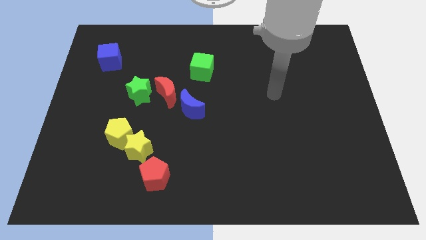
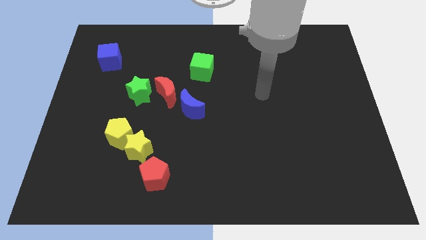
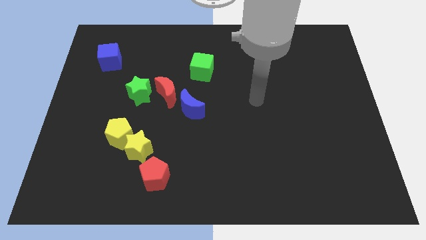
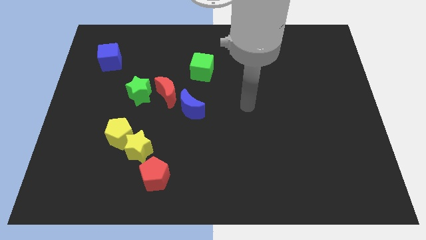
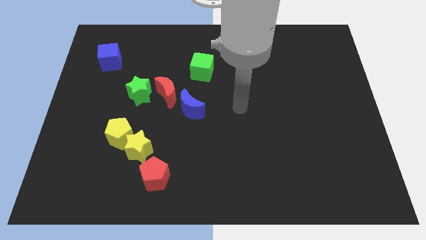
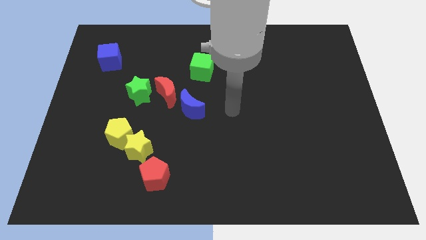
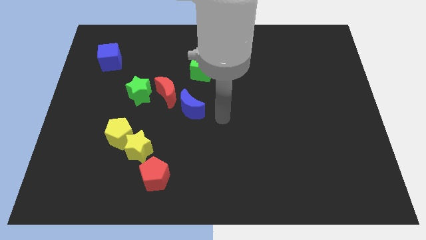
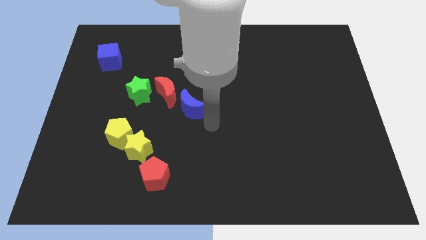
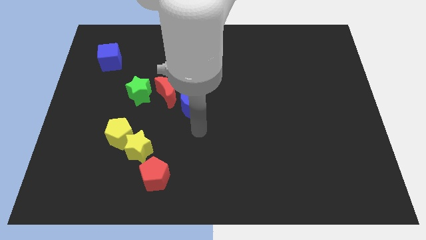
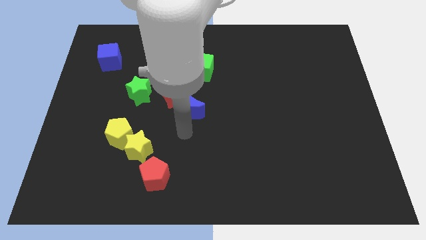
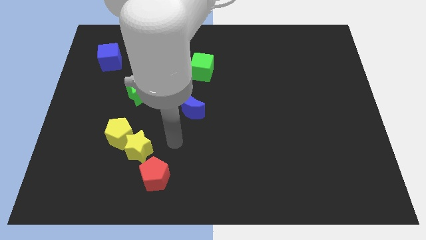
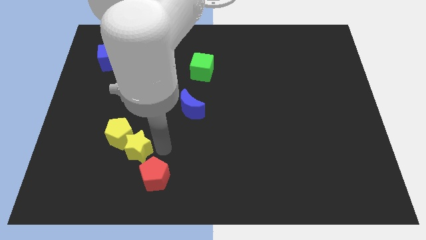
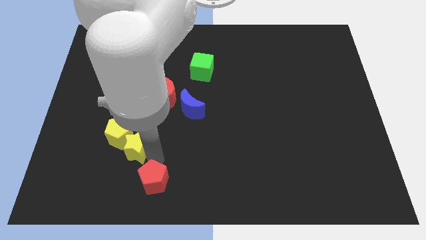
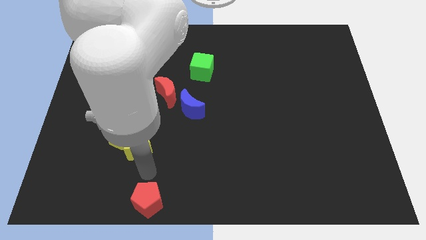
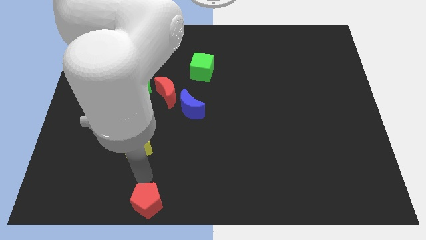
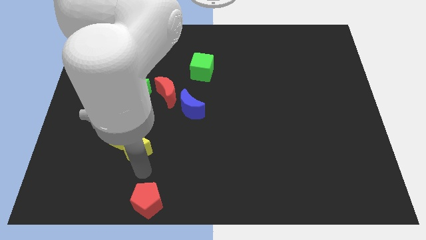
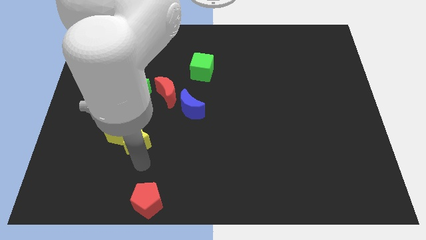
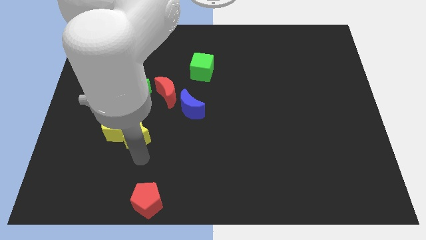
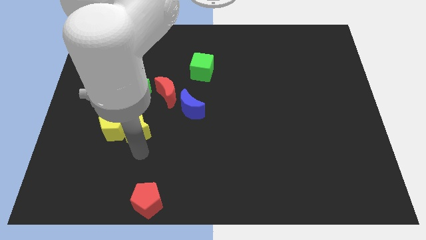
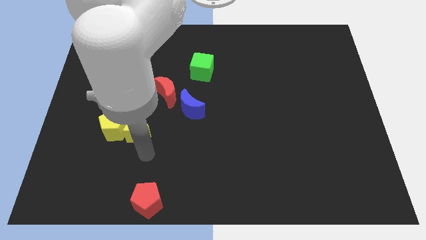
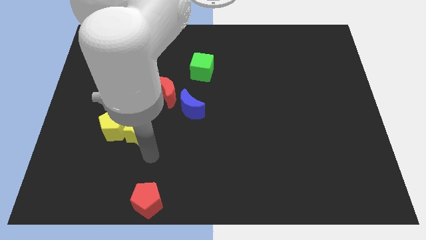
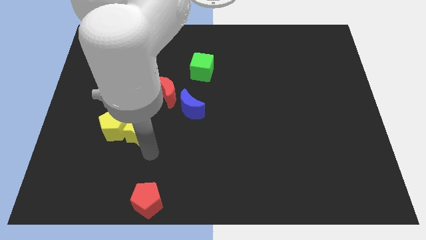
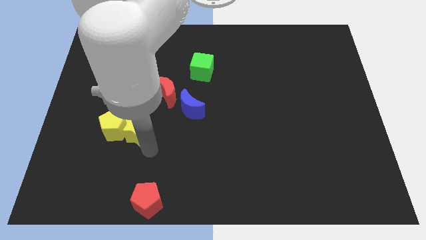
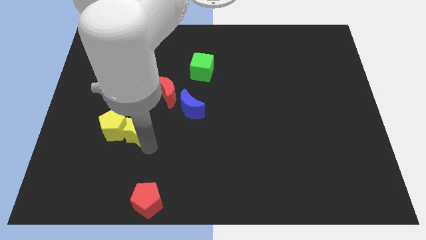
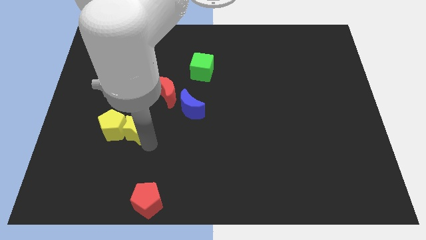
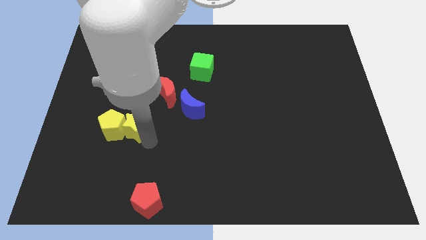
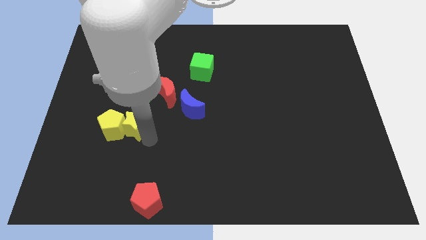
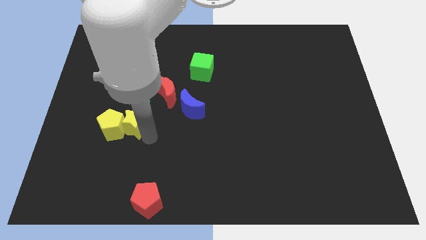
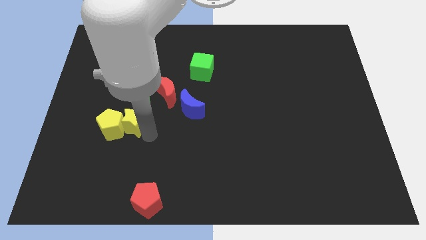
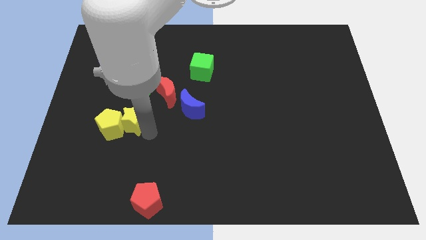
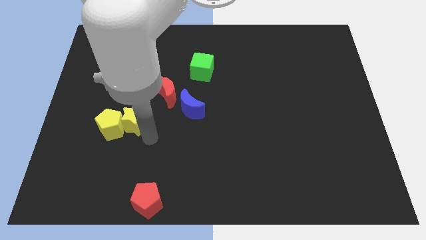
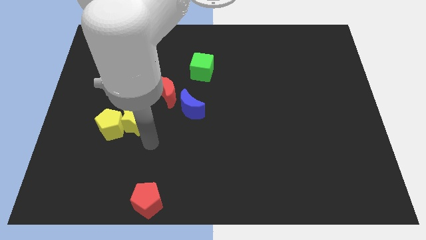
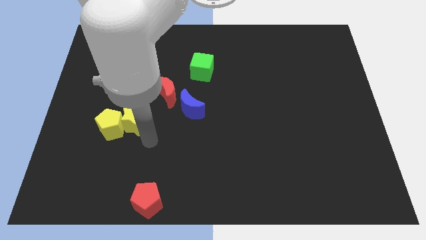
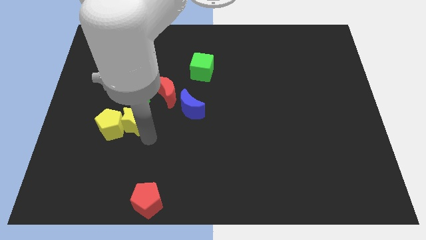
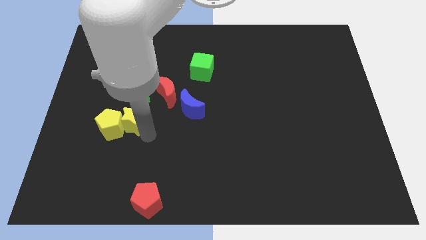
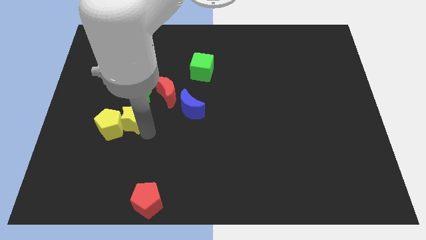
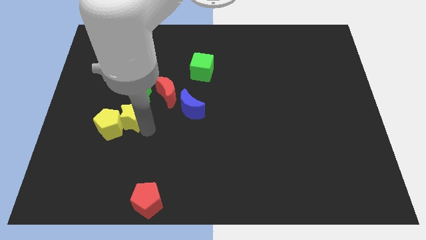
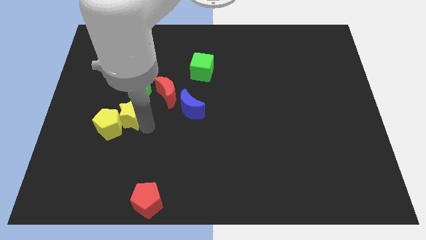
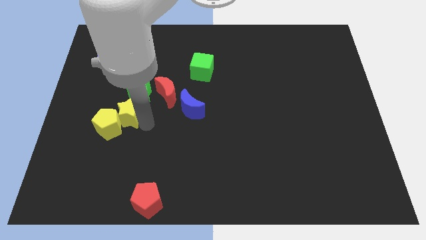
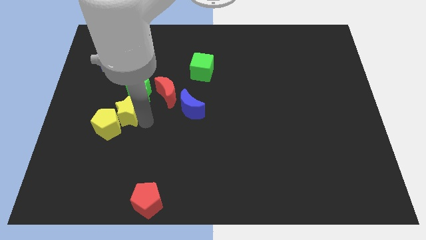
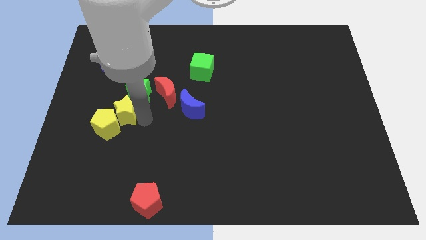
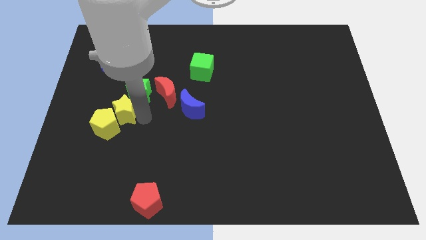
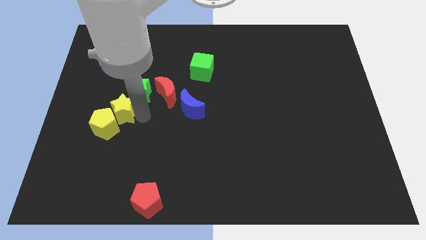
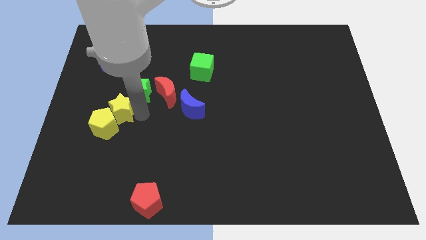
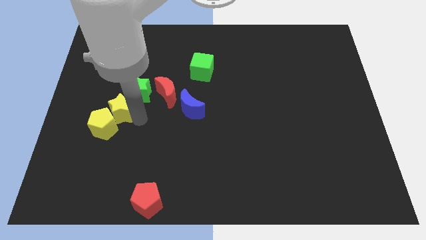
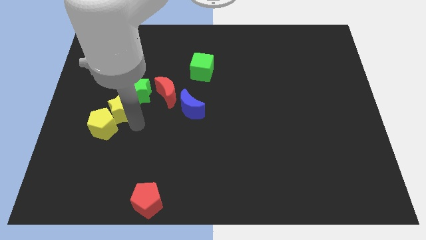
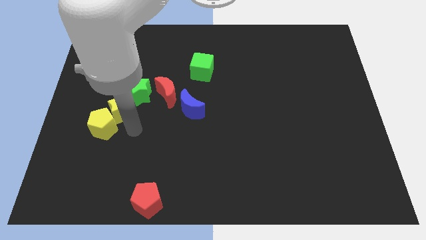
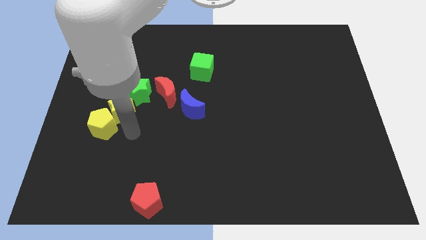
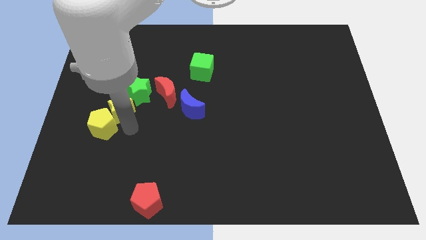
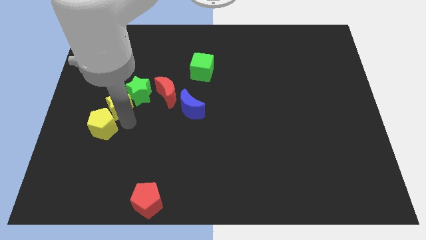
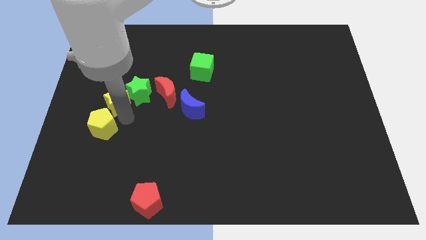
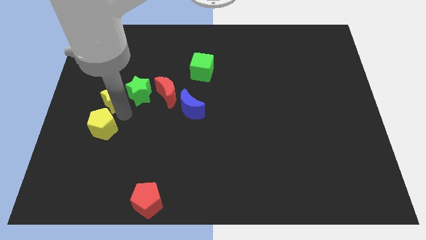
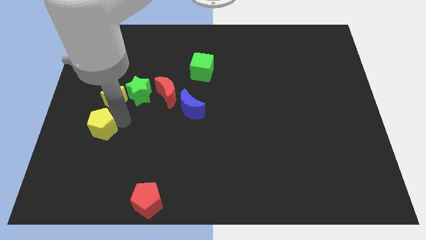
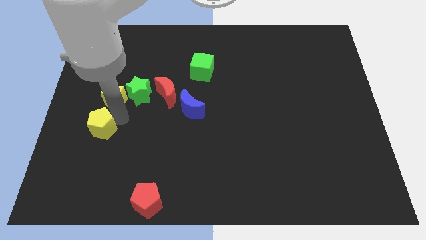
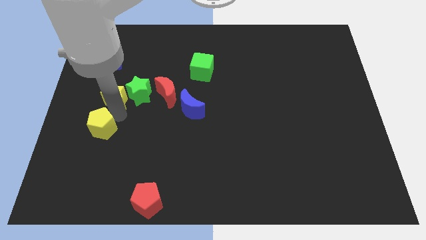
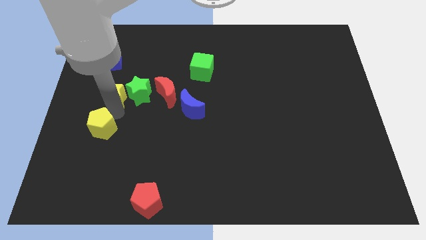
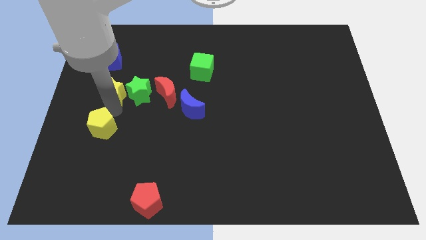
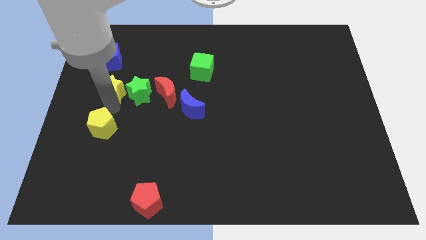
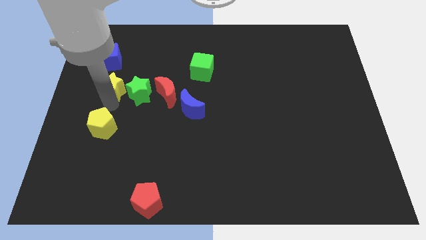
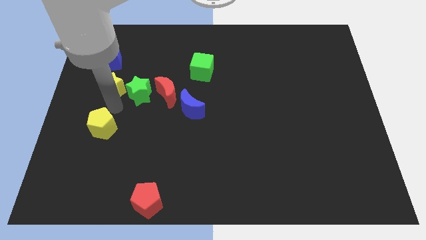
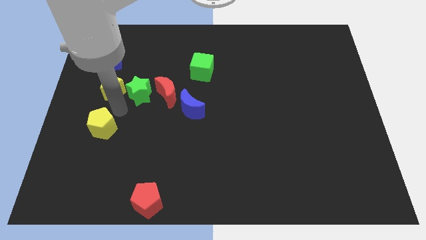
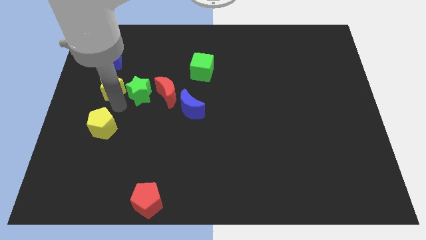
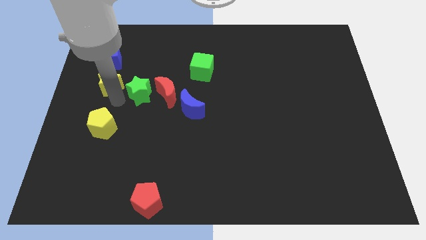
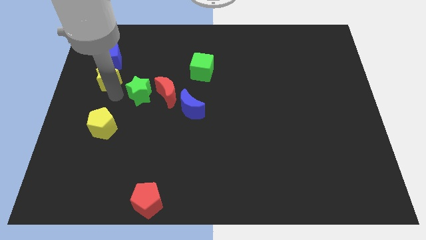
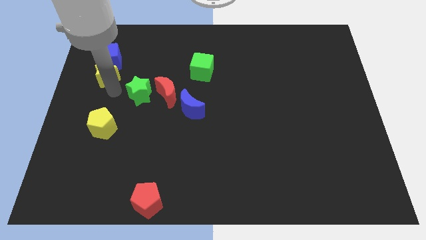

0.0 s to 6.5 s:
slide the yellow star towards the blue cube

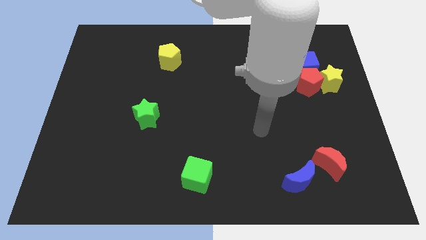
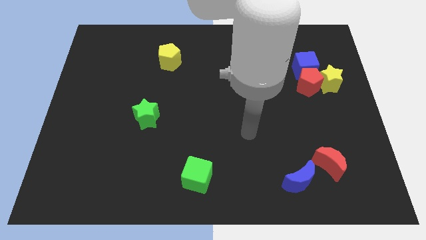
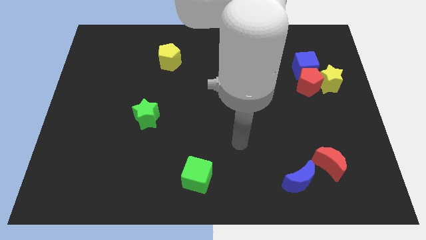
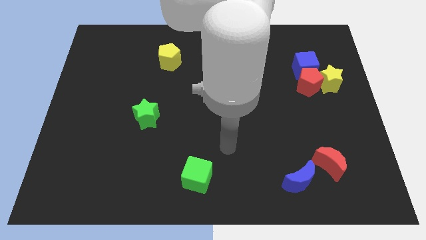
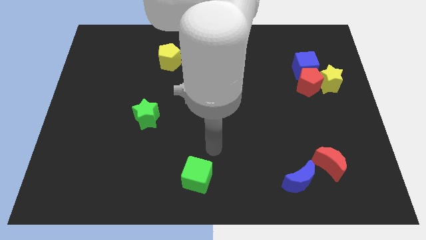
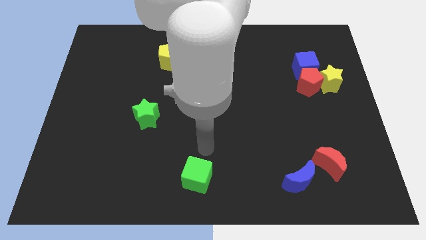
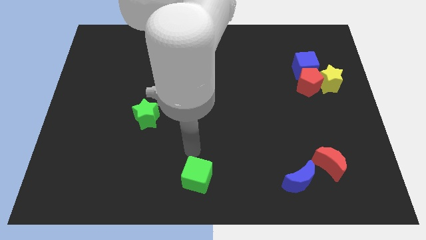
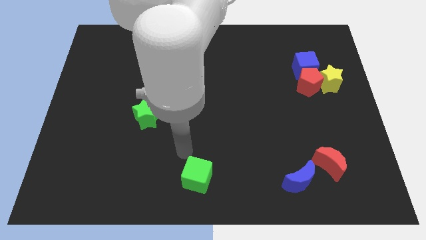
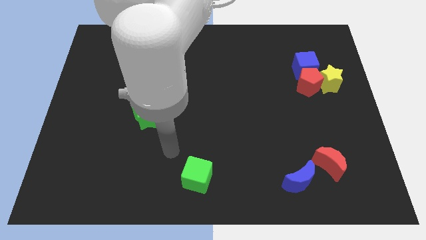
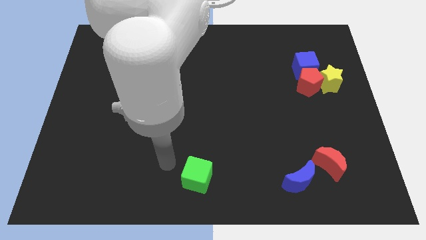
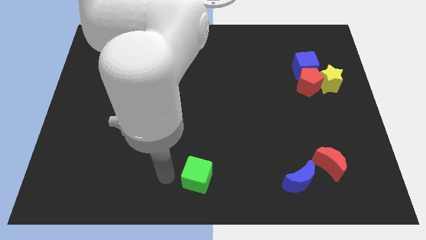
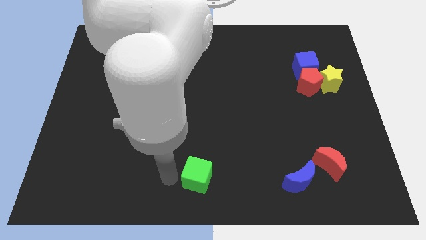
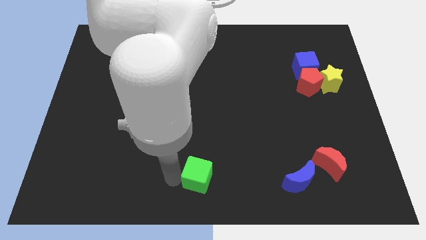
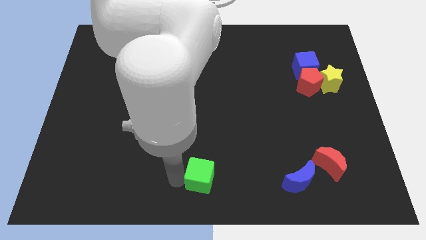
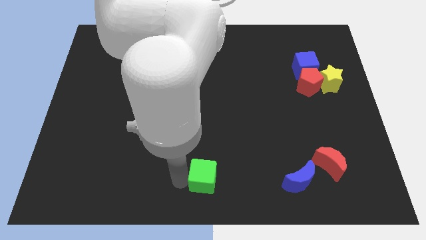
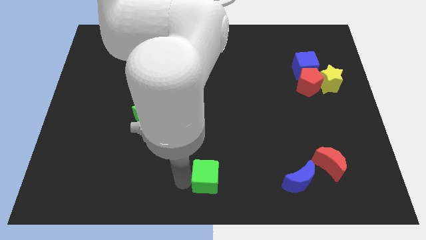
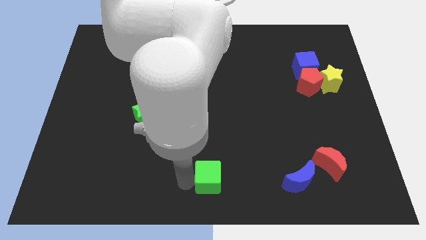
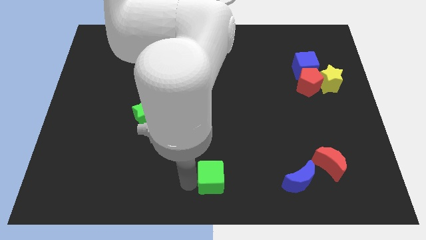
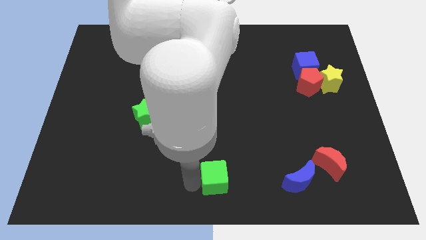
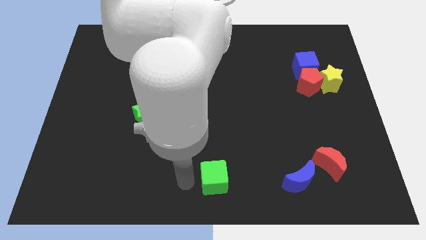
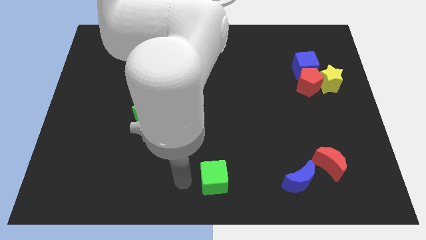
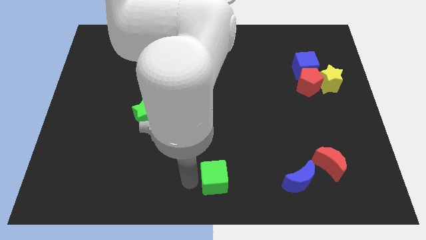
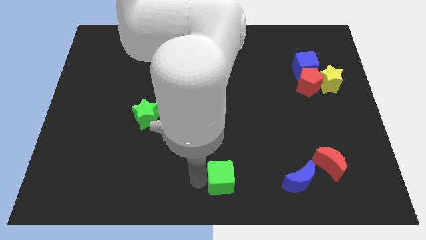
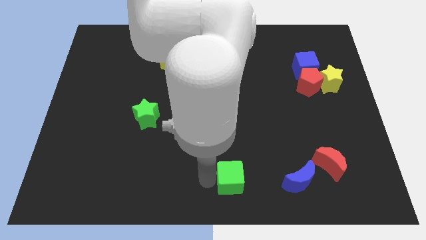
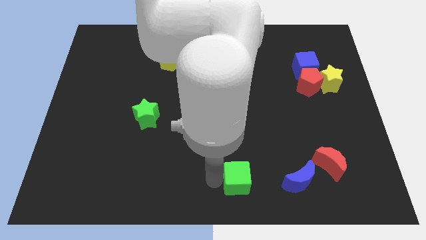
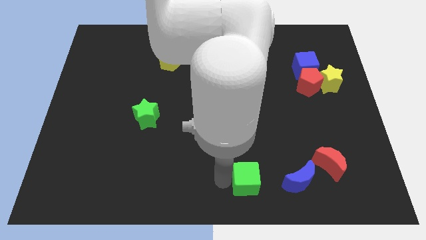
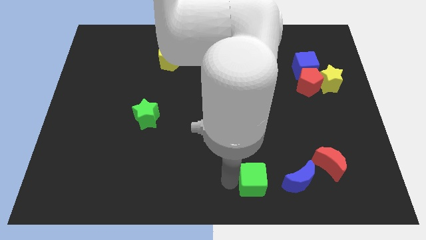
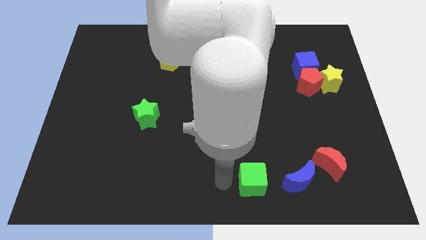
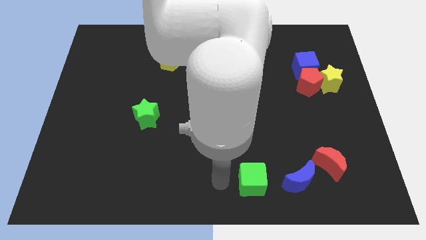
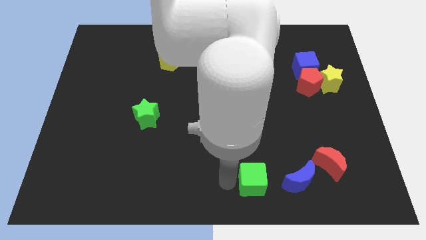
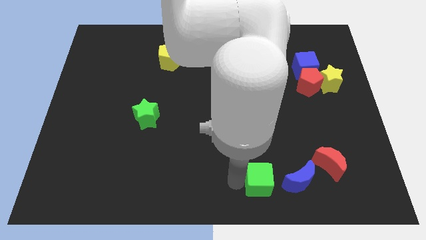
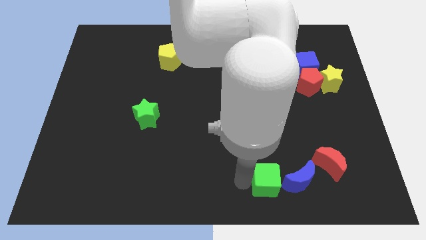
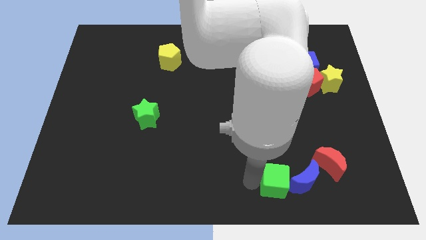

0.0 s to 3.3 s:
push the green cube to the blue moon
